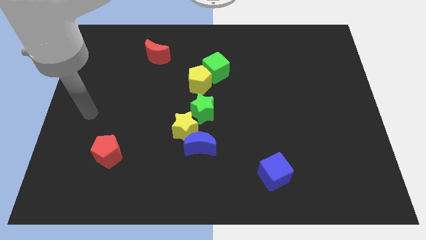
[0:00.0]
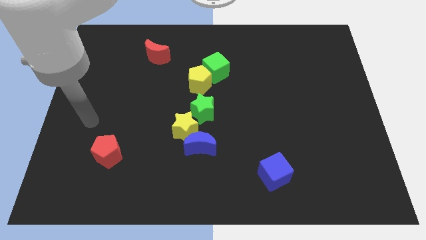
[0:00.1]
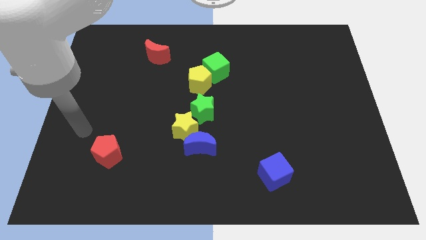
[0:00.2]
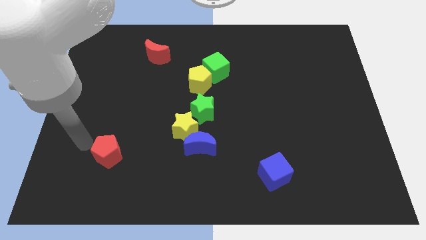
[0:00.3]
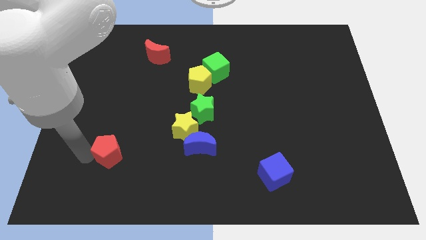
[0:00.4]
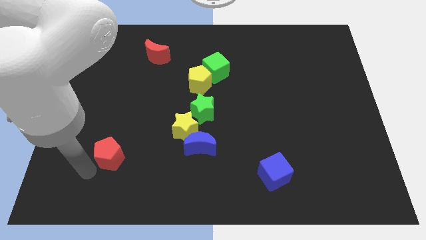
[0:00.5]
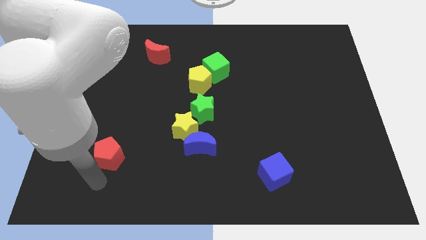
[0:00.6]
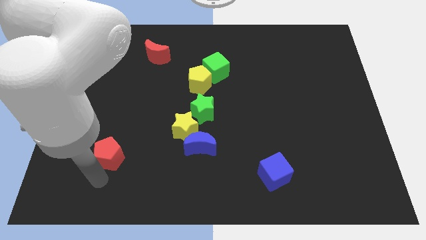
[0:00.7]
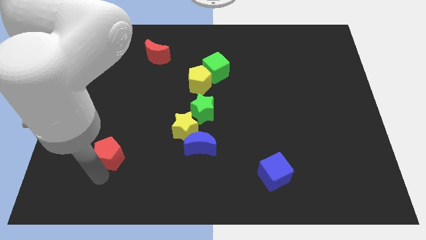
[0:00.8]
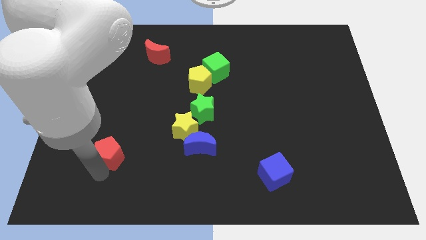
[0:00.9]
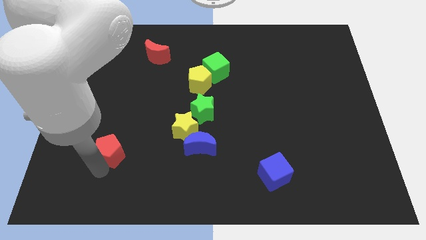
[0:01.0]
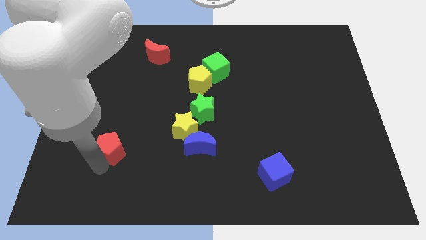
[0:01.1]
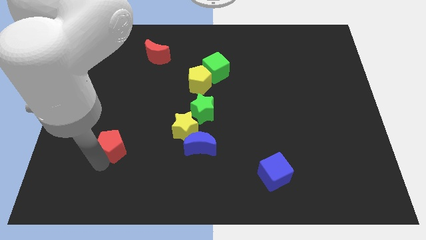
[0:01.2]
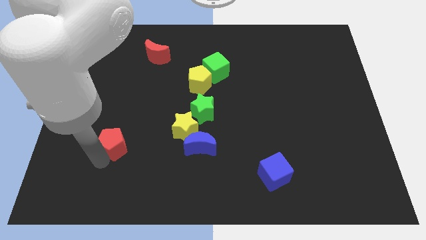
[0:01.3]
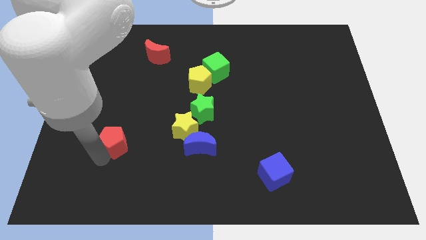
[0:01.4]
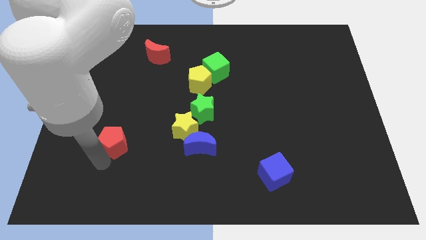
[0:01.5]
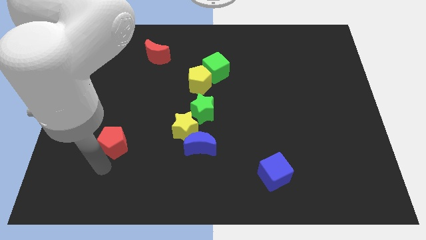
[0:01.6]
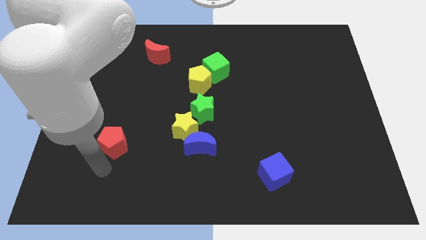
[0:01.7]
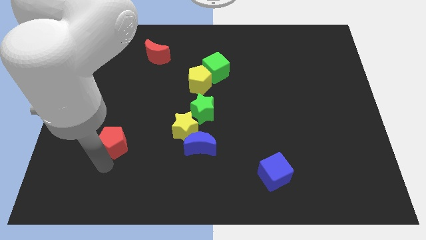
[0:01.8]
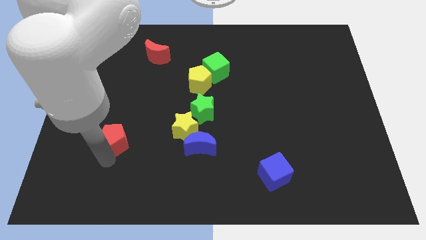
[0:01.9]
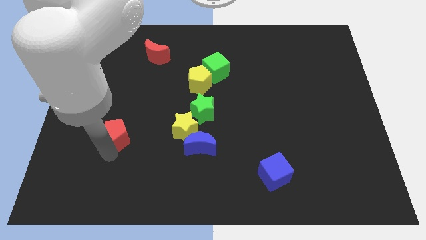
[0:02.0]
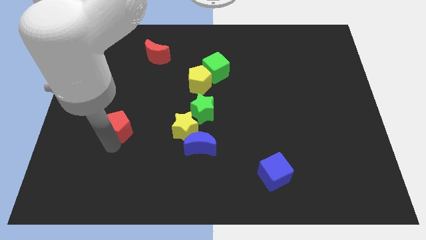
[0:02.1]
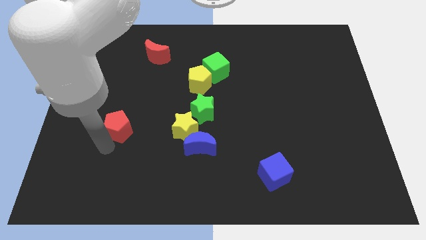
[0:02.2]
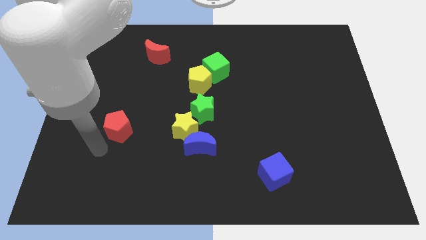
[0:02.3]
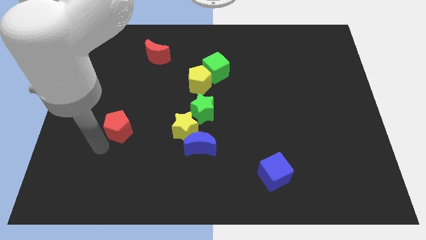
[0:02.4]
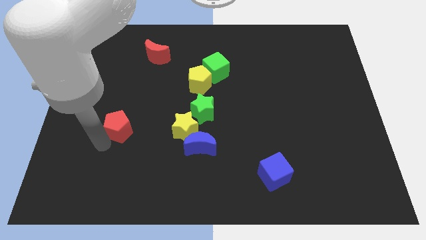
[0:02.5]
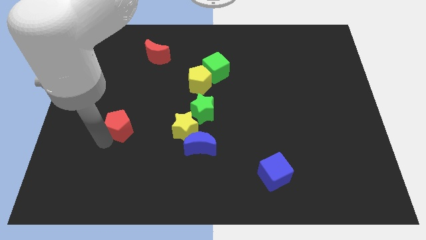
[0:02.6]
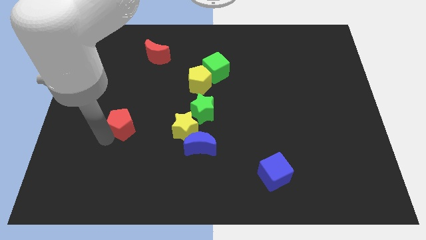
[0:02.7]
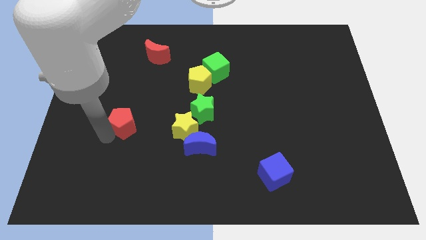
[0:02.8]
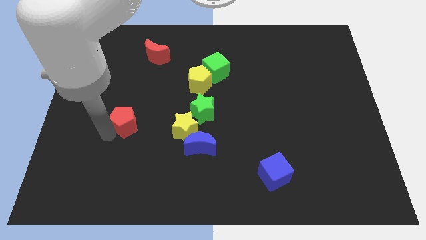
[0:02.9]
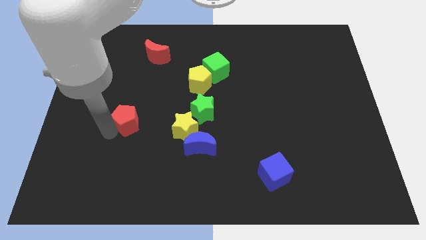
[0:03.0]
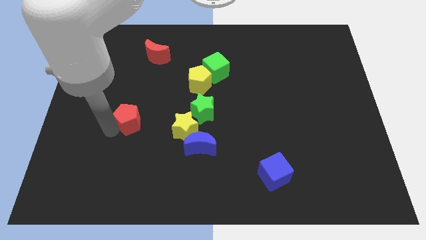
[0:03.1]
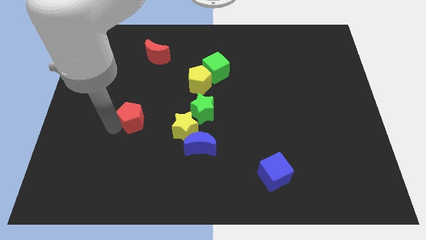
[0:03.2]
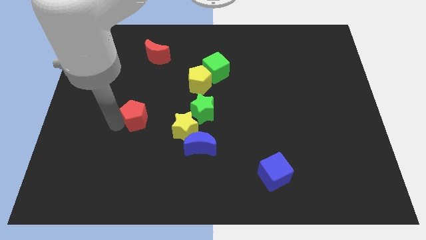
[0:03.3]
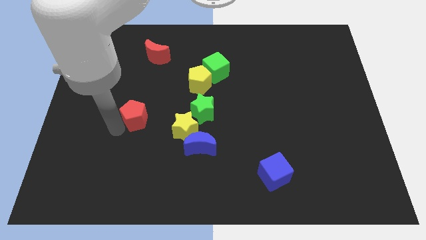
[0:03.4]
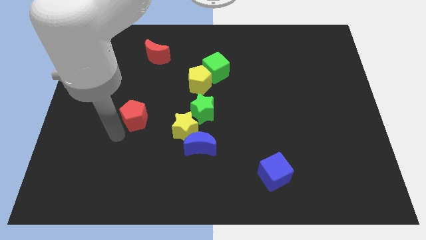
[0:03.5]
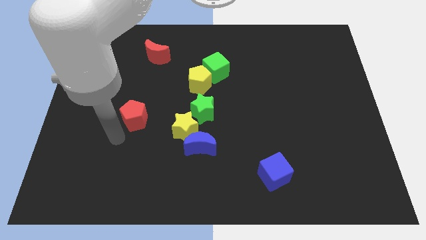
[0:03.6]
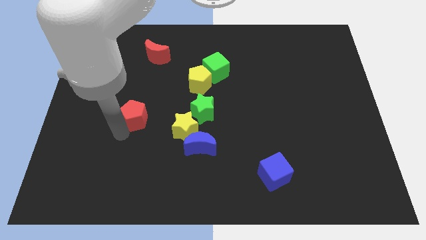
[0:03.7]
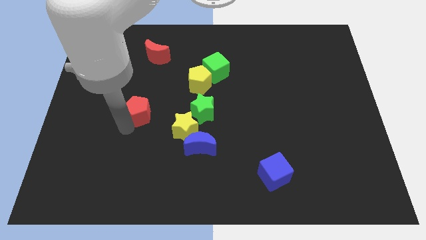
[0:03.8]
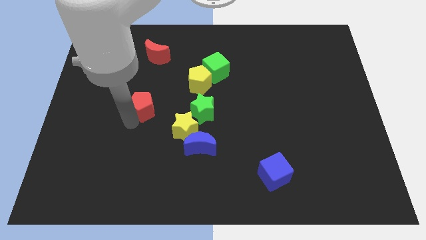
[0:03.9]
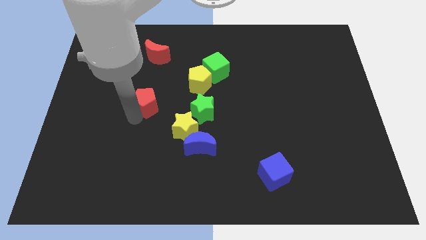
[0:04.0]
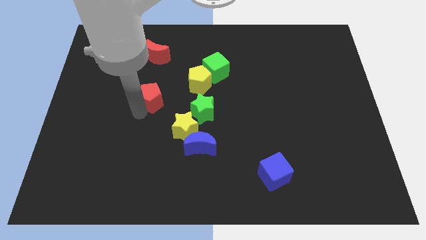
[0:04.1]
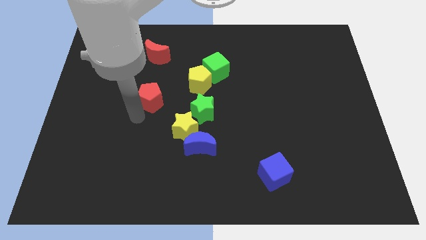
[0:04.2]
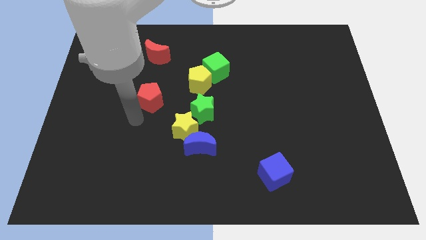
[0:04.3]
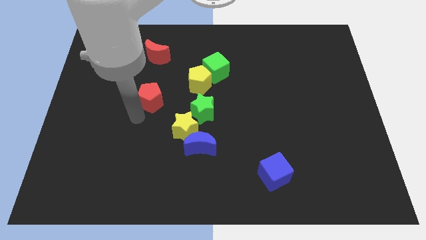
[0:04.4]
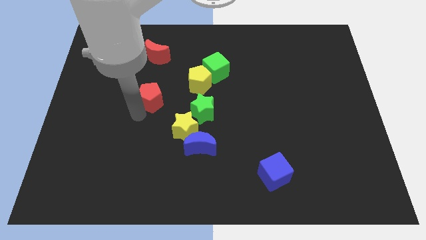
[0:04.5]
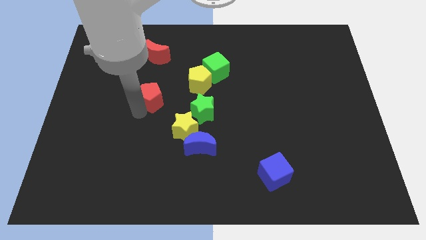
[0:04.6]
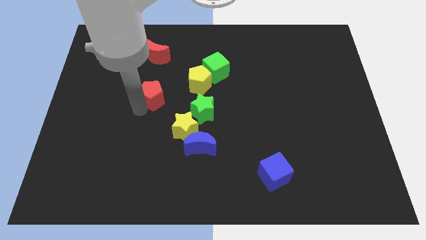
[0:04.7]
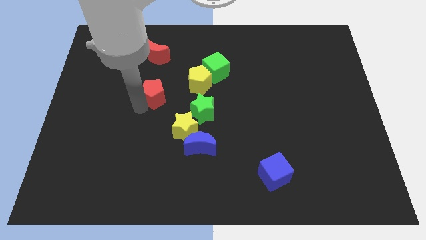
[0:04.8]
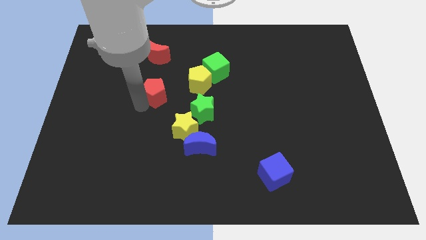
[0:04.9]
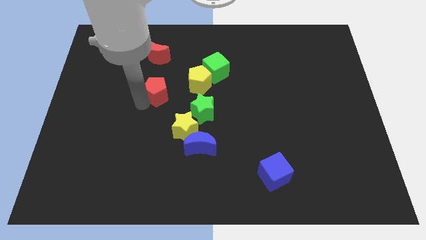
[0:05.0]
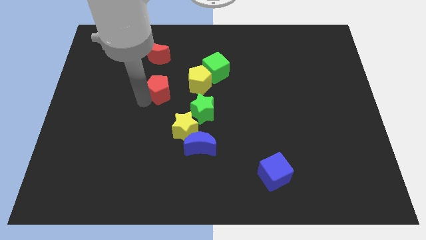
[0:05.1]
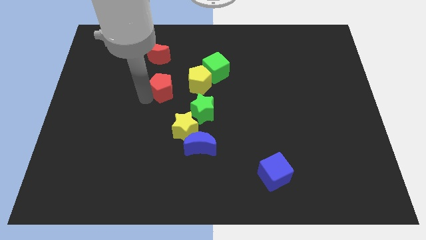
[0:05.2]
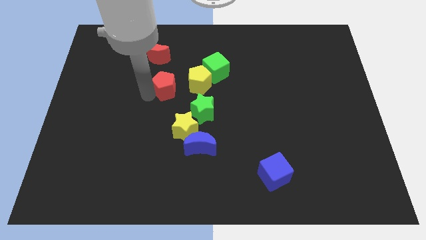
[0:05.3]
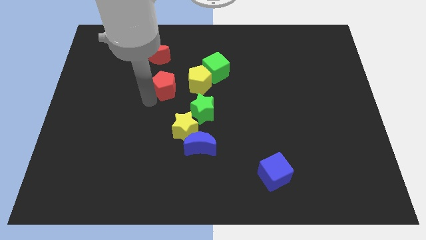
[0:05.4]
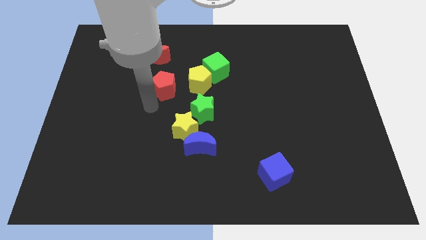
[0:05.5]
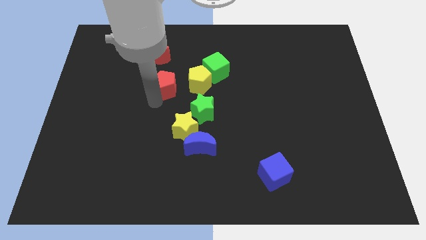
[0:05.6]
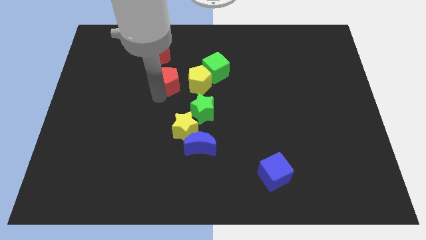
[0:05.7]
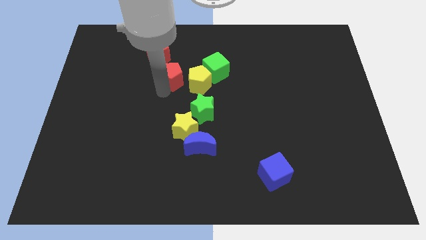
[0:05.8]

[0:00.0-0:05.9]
put the red pentagon to the top left of the yellow pentagon
